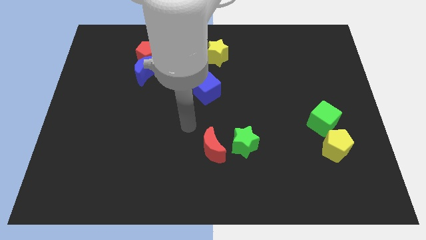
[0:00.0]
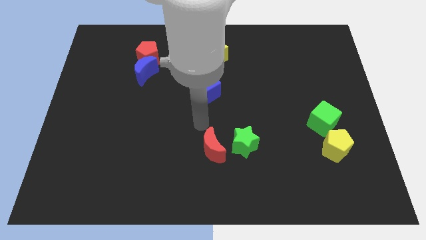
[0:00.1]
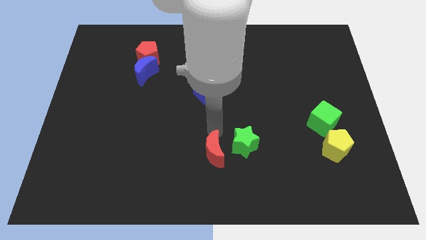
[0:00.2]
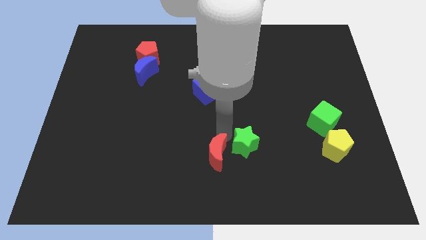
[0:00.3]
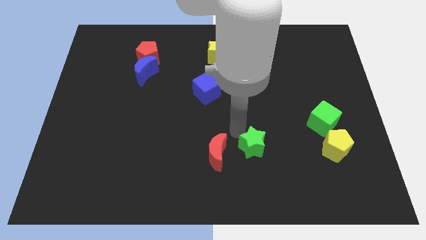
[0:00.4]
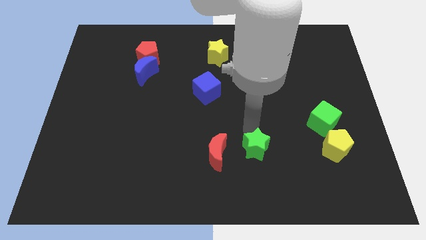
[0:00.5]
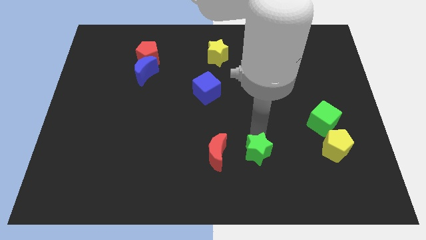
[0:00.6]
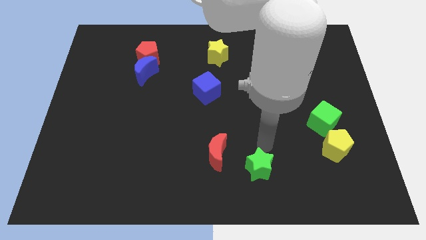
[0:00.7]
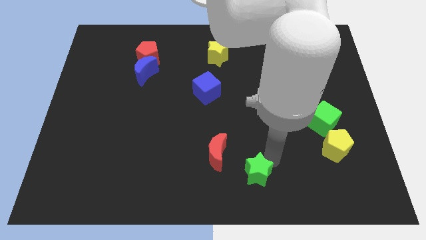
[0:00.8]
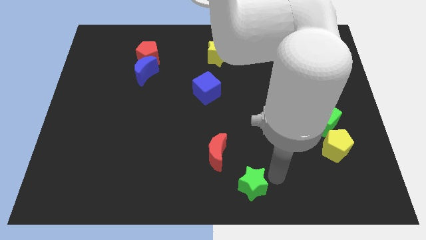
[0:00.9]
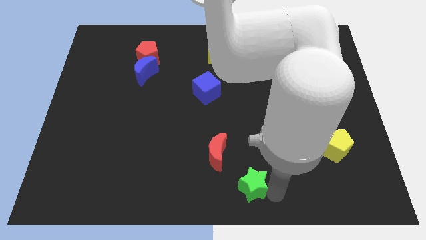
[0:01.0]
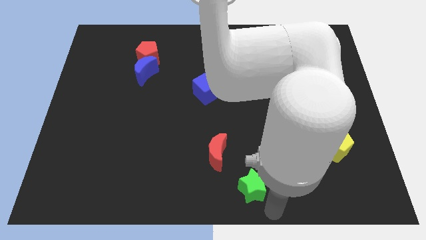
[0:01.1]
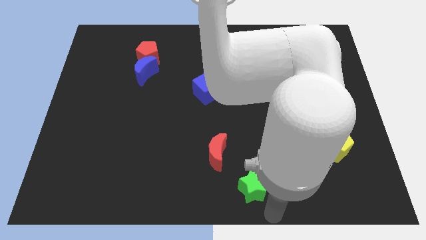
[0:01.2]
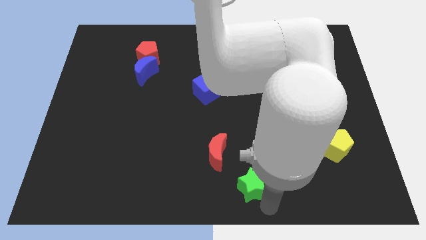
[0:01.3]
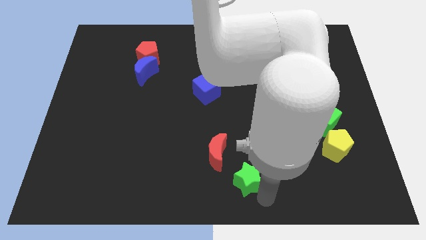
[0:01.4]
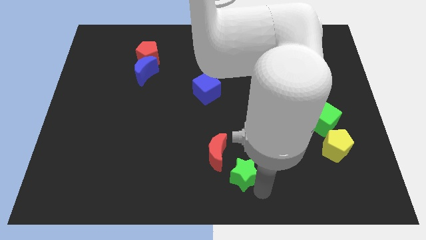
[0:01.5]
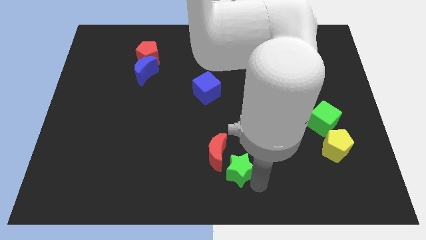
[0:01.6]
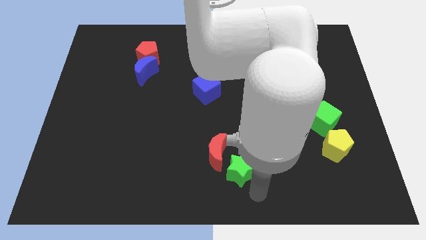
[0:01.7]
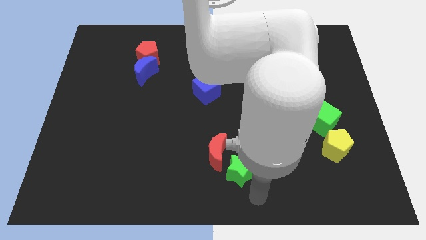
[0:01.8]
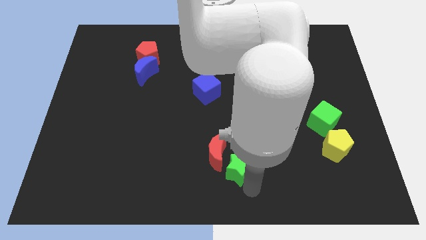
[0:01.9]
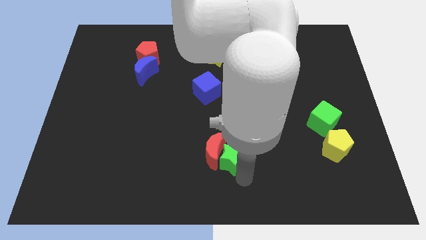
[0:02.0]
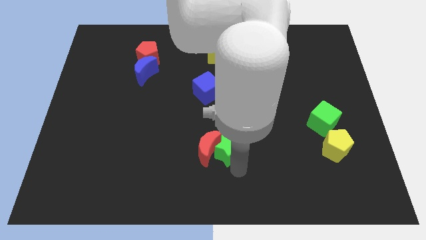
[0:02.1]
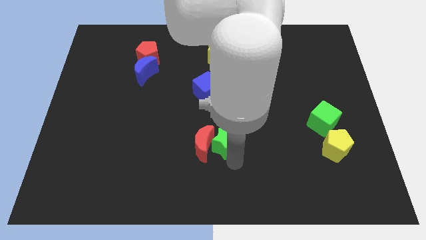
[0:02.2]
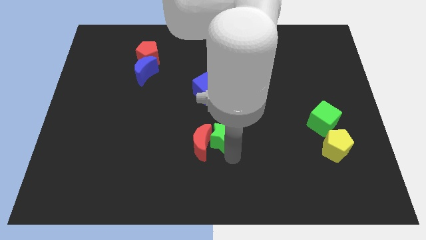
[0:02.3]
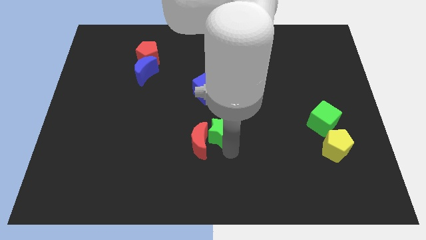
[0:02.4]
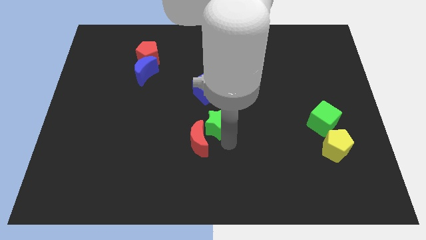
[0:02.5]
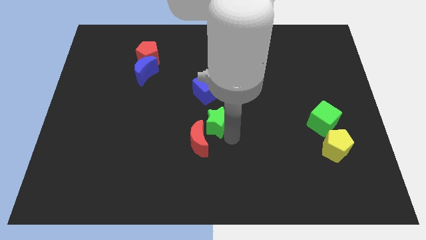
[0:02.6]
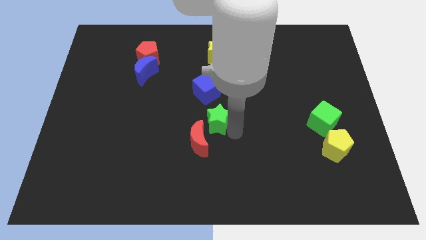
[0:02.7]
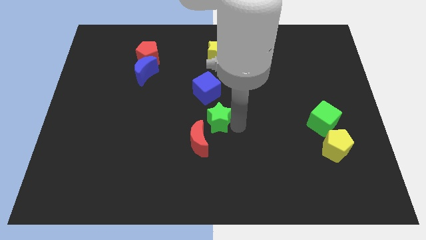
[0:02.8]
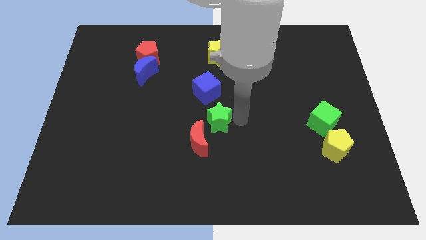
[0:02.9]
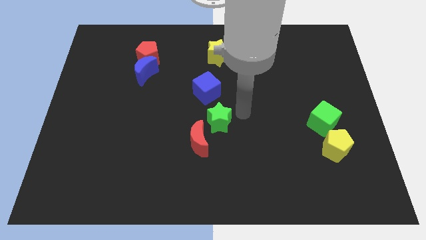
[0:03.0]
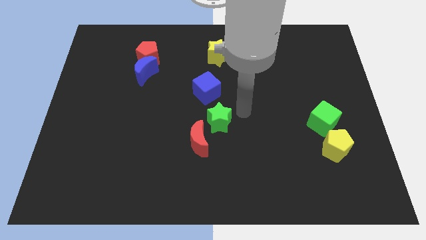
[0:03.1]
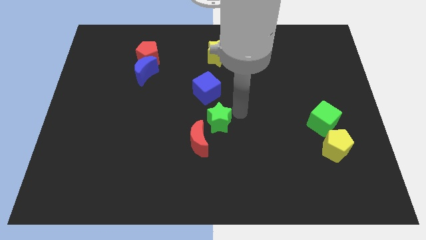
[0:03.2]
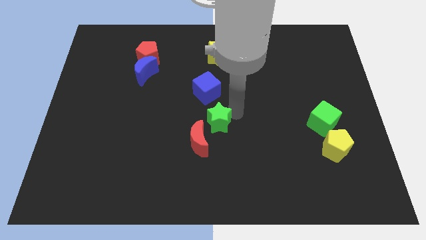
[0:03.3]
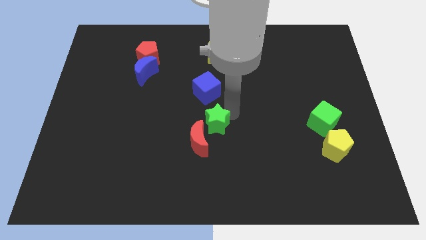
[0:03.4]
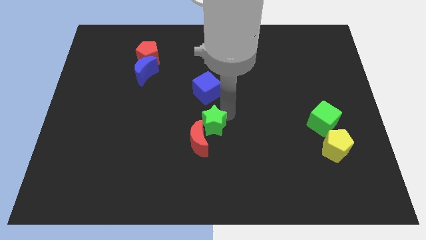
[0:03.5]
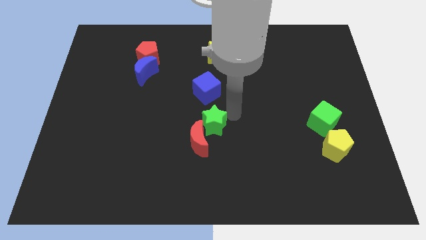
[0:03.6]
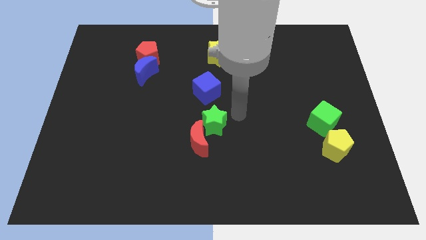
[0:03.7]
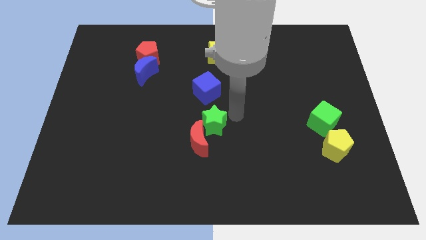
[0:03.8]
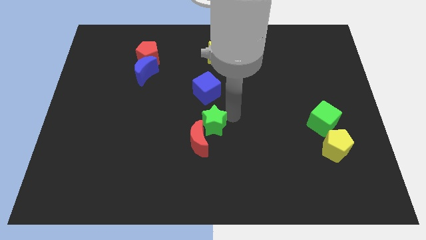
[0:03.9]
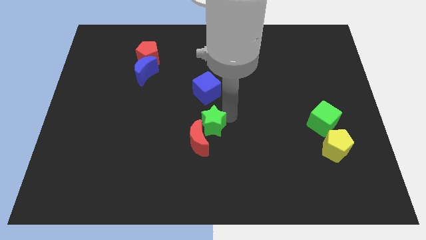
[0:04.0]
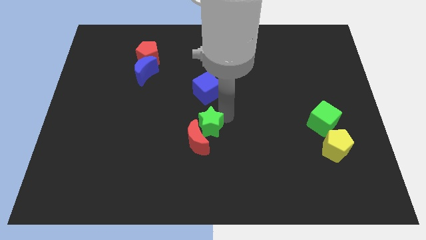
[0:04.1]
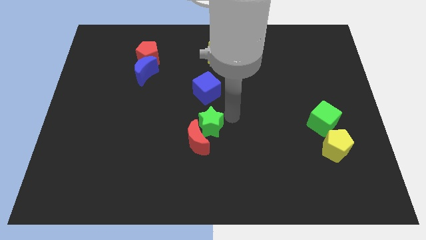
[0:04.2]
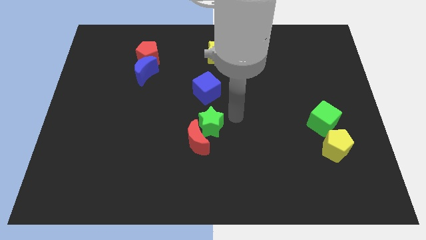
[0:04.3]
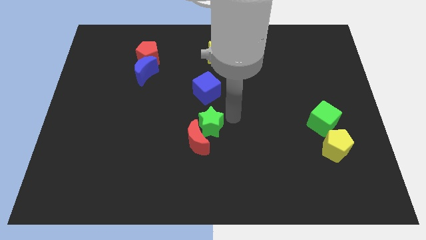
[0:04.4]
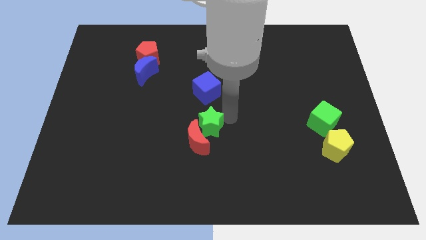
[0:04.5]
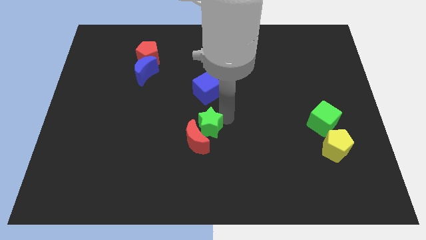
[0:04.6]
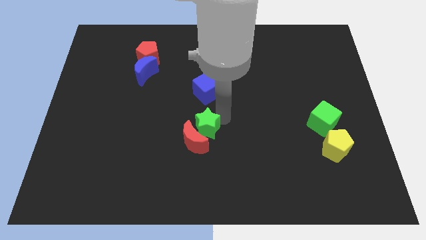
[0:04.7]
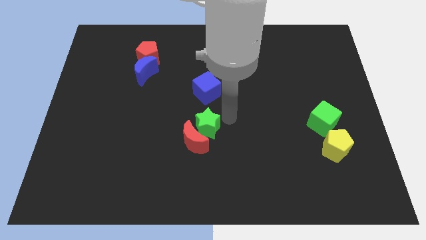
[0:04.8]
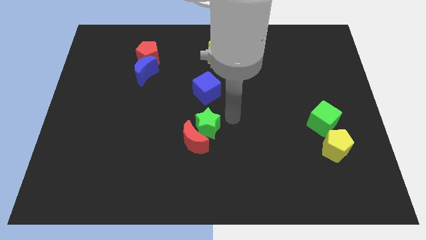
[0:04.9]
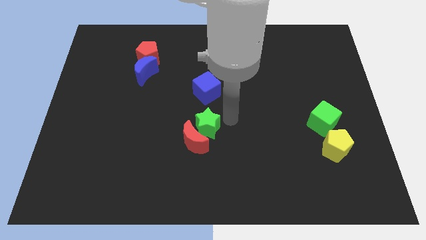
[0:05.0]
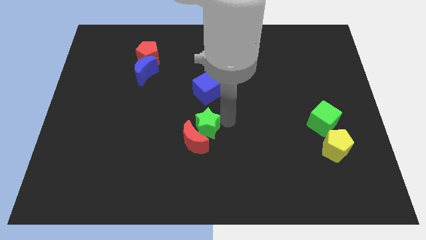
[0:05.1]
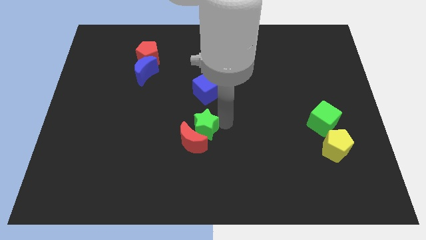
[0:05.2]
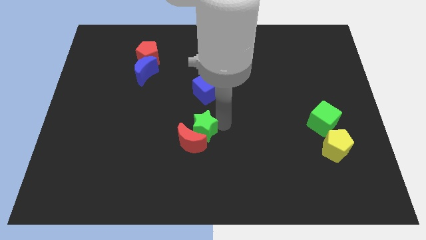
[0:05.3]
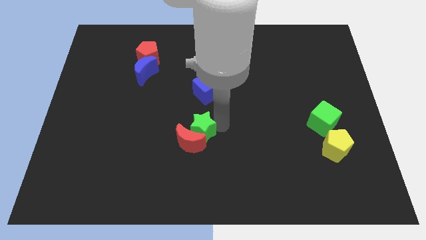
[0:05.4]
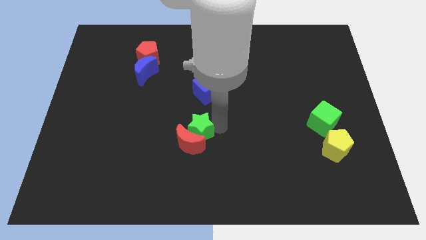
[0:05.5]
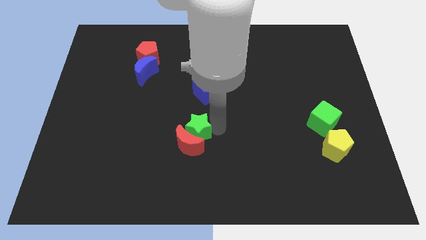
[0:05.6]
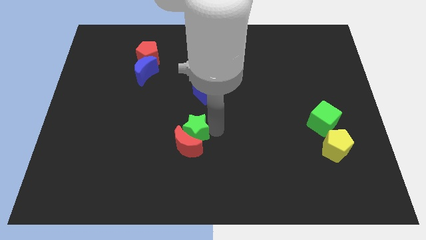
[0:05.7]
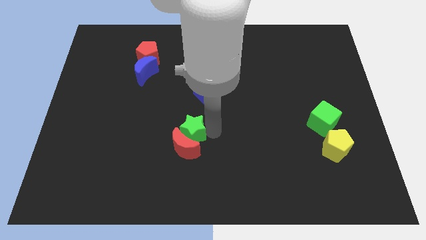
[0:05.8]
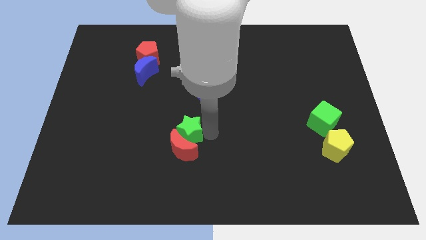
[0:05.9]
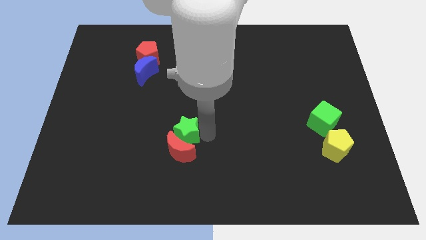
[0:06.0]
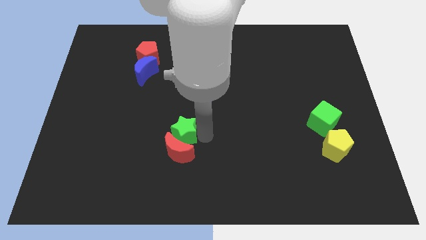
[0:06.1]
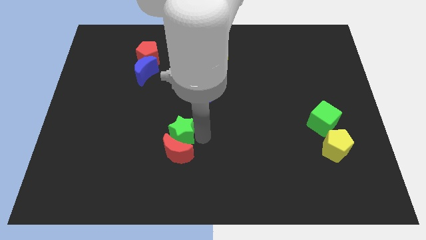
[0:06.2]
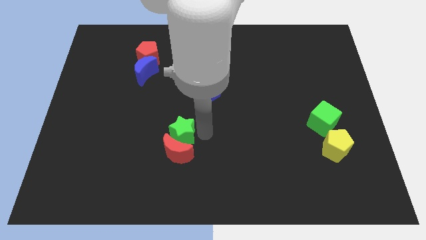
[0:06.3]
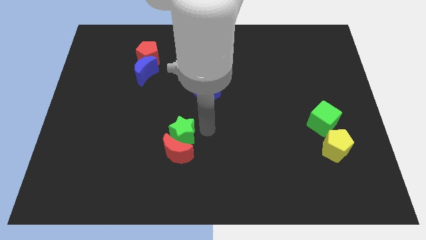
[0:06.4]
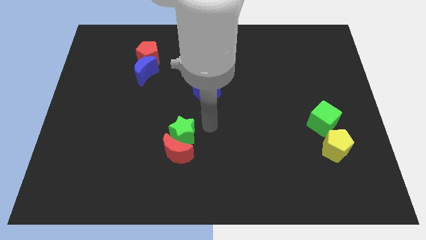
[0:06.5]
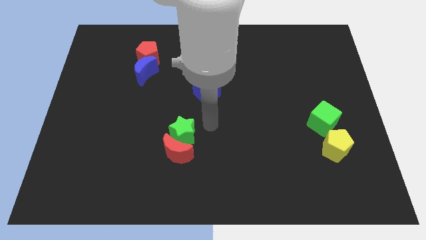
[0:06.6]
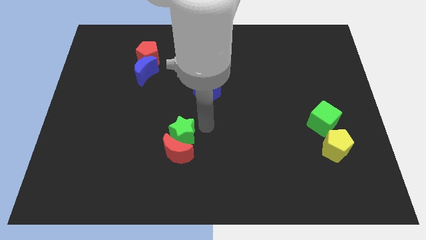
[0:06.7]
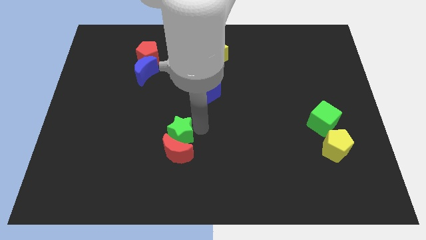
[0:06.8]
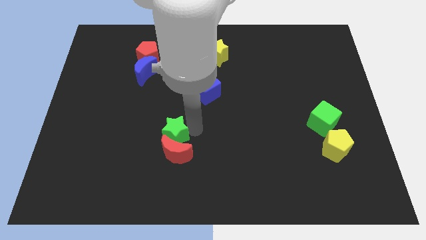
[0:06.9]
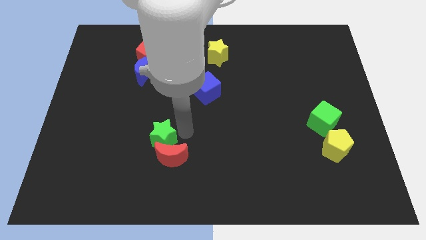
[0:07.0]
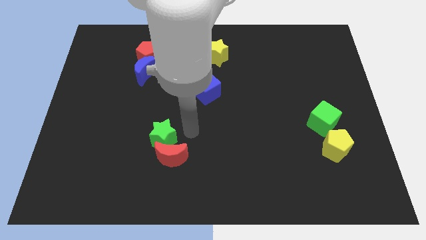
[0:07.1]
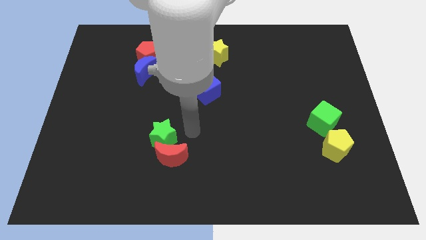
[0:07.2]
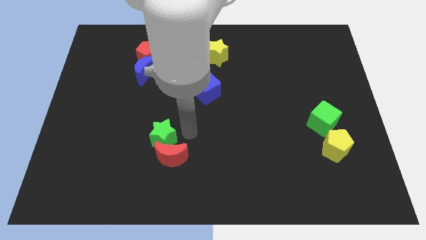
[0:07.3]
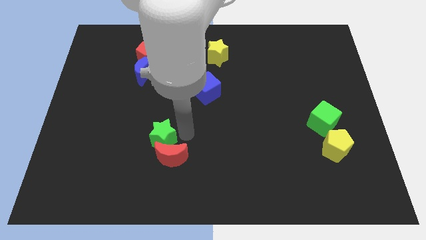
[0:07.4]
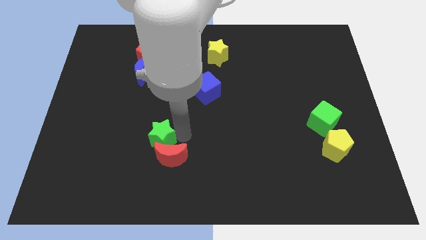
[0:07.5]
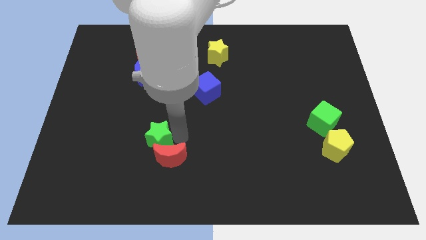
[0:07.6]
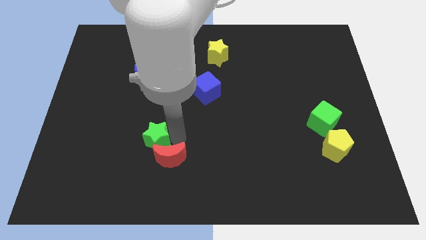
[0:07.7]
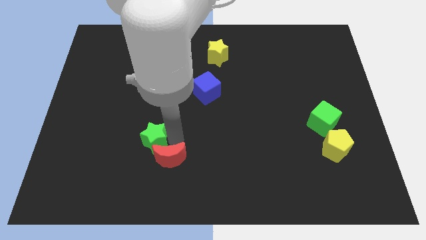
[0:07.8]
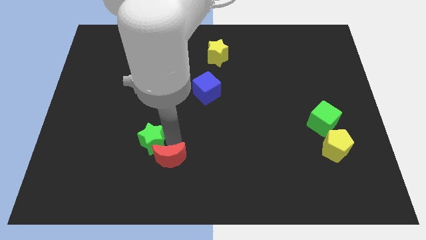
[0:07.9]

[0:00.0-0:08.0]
push the green star to the left
